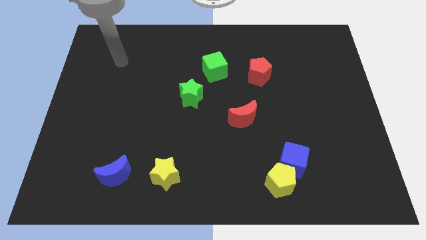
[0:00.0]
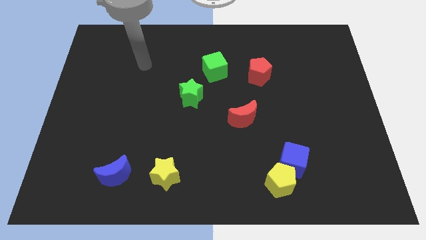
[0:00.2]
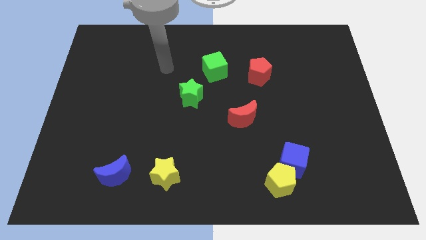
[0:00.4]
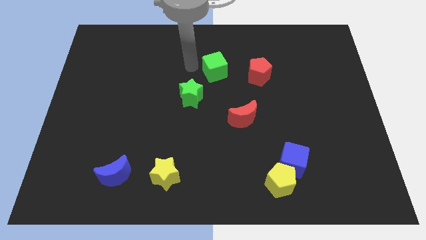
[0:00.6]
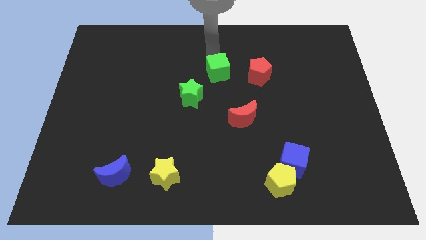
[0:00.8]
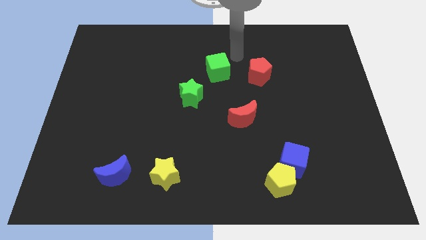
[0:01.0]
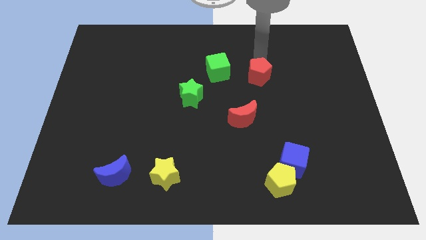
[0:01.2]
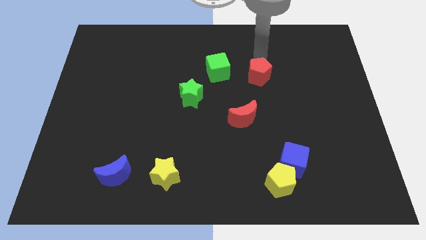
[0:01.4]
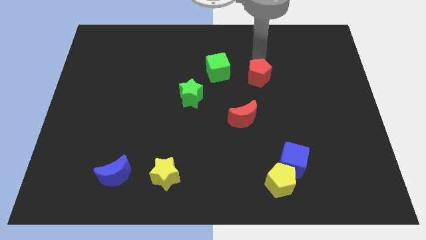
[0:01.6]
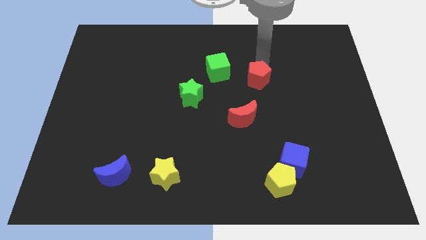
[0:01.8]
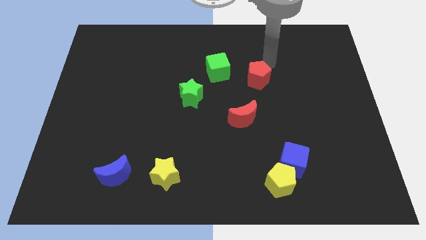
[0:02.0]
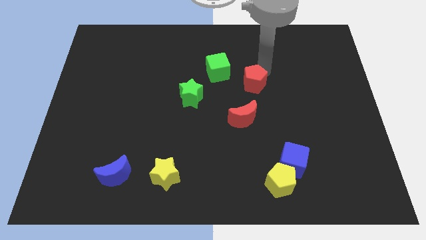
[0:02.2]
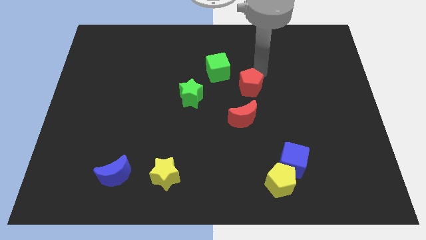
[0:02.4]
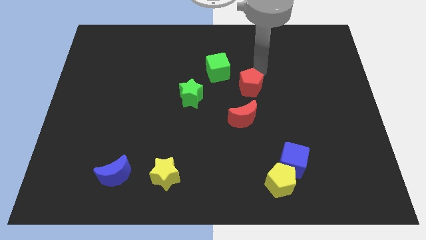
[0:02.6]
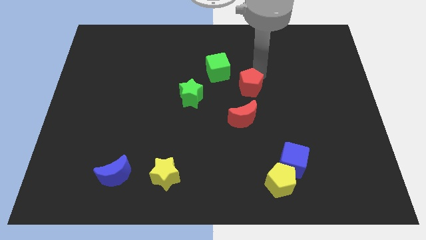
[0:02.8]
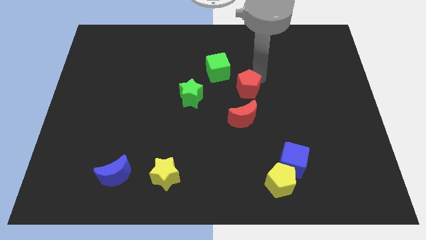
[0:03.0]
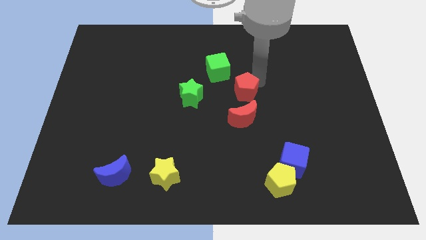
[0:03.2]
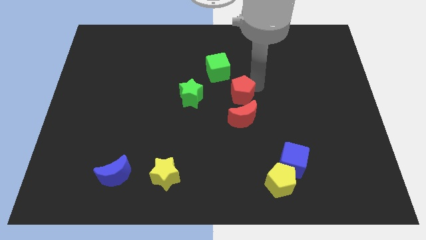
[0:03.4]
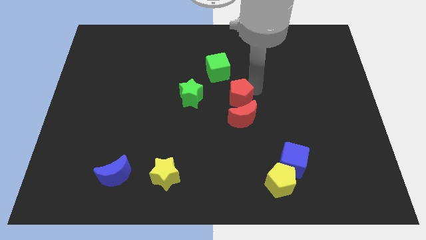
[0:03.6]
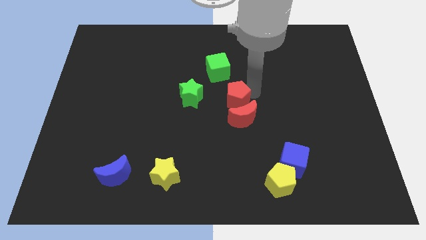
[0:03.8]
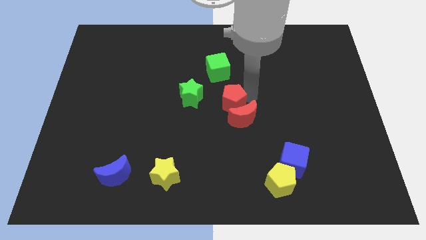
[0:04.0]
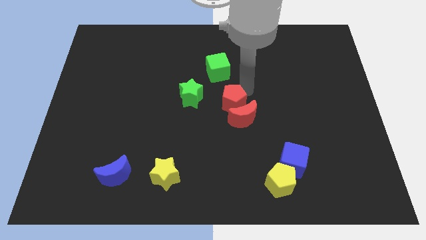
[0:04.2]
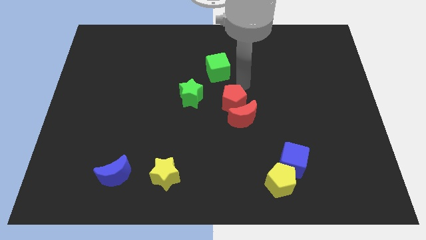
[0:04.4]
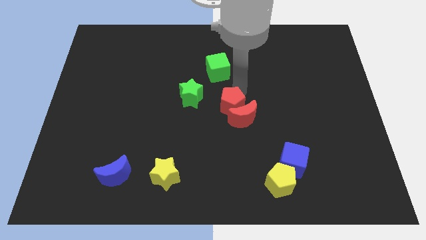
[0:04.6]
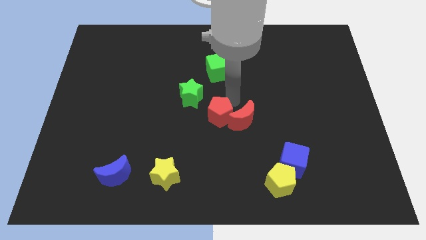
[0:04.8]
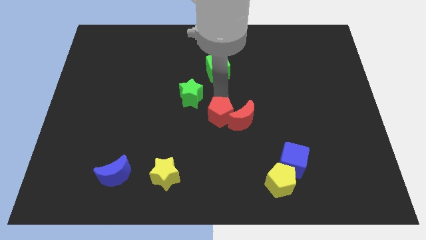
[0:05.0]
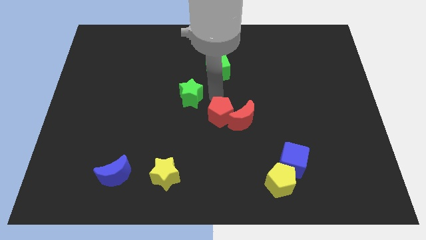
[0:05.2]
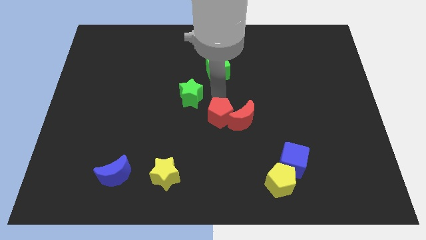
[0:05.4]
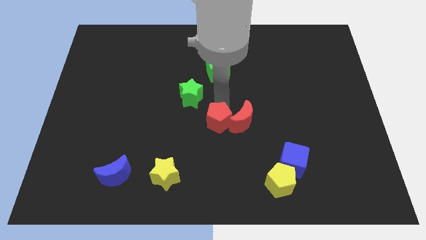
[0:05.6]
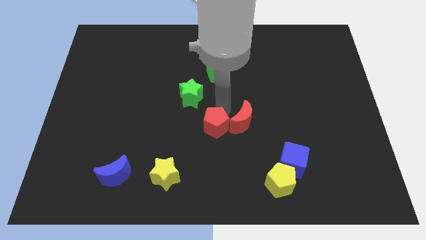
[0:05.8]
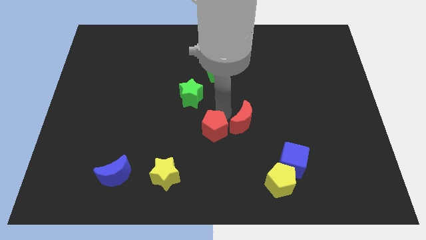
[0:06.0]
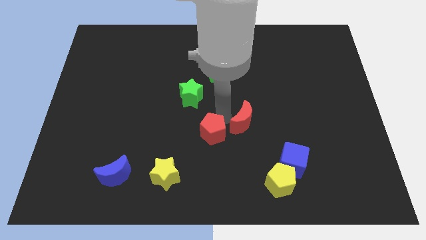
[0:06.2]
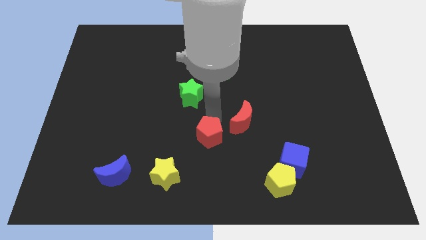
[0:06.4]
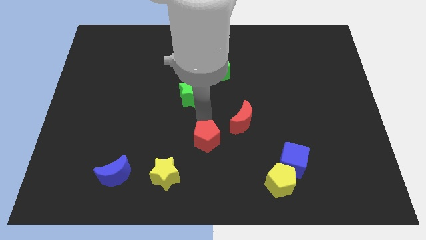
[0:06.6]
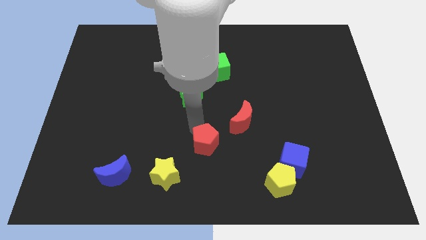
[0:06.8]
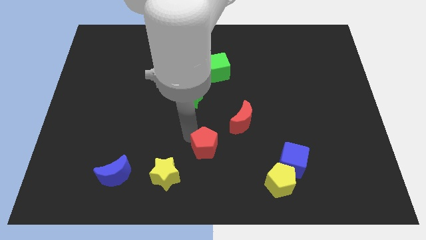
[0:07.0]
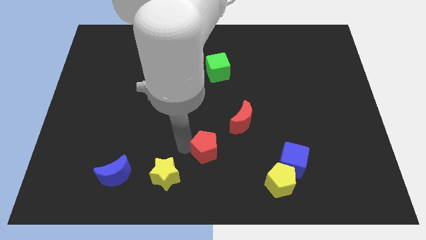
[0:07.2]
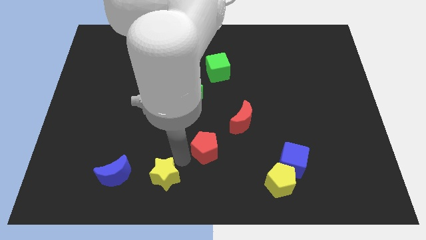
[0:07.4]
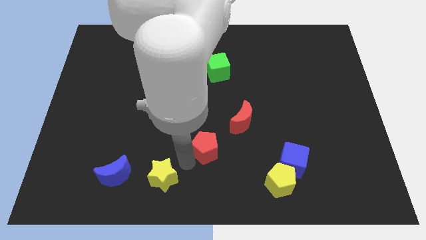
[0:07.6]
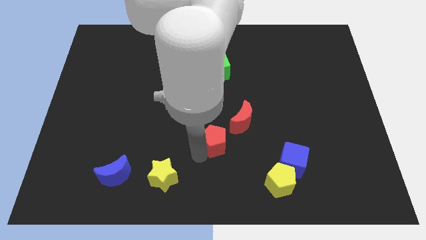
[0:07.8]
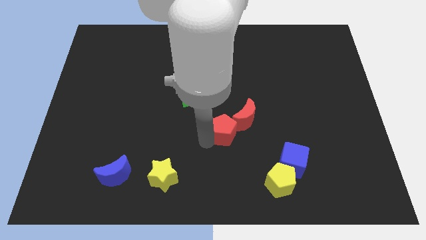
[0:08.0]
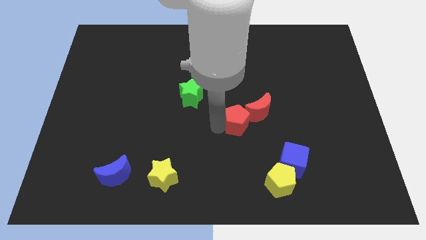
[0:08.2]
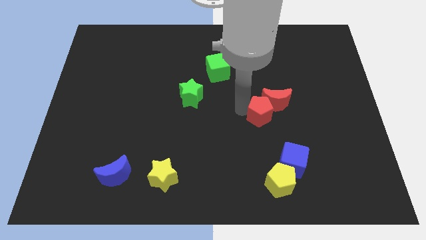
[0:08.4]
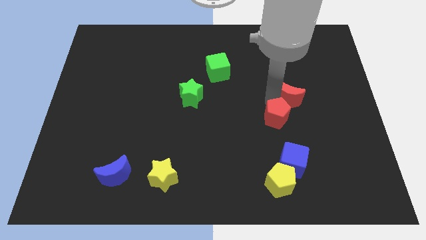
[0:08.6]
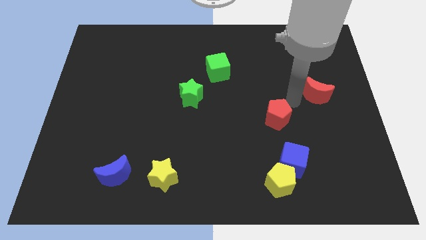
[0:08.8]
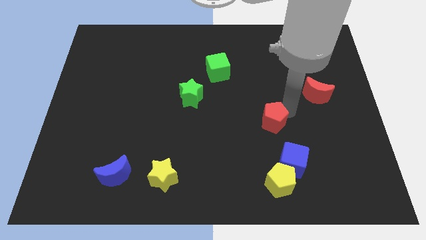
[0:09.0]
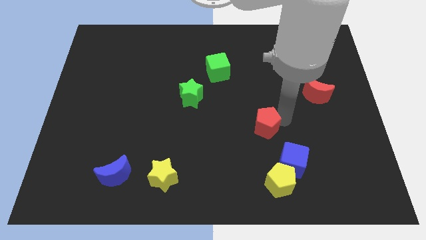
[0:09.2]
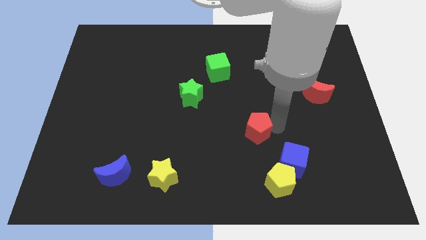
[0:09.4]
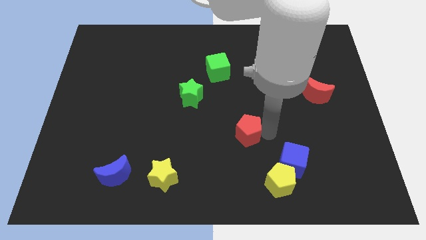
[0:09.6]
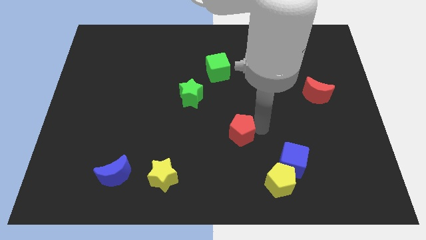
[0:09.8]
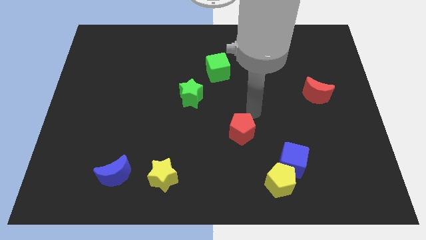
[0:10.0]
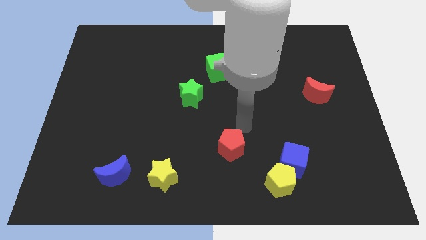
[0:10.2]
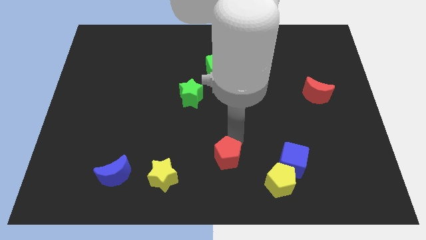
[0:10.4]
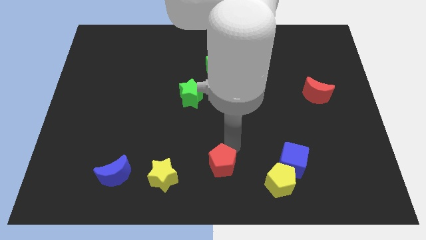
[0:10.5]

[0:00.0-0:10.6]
slide the red pentagon to the right of the yellow star
